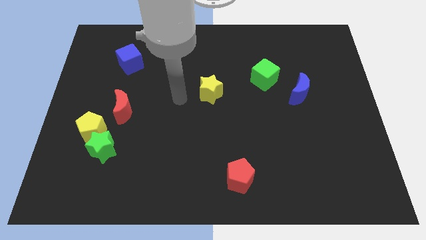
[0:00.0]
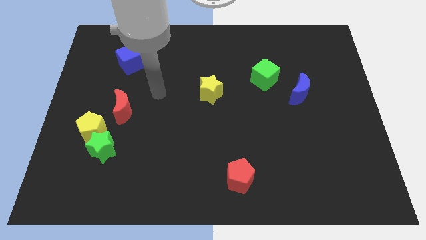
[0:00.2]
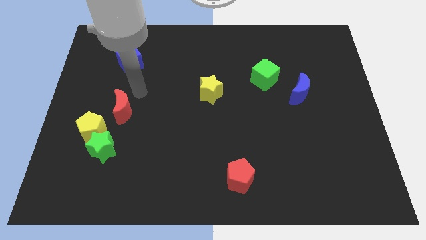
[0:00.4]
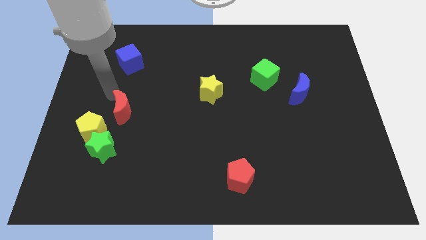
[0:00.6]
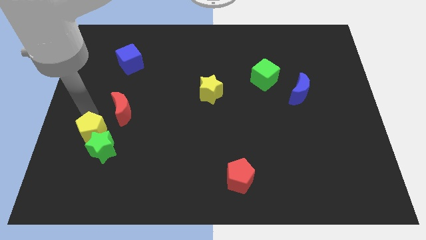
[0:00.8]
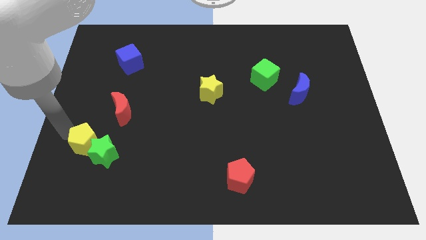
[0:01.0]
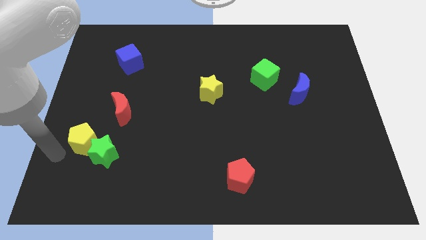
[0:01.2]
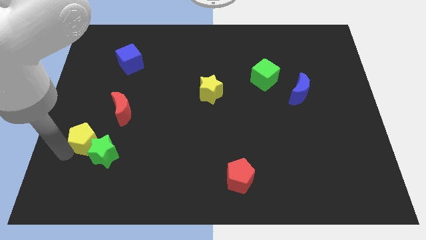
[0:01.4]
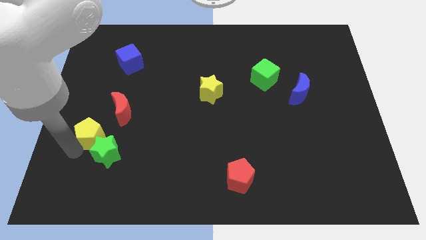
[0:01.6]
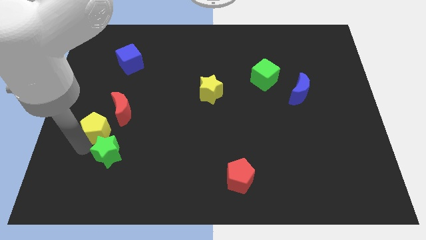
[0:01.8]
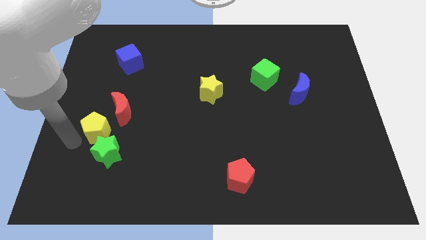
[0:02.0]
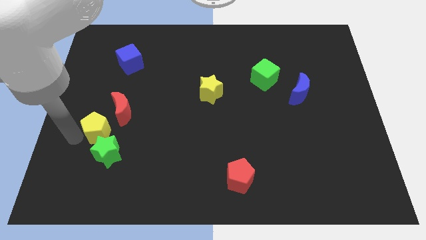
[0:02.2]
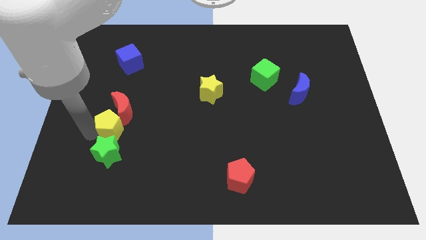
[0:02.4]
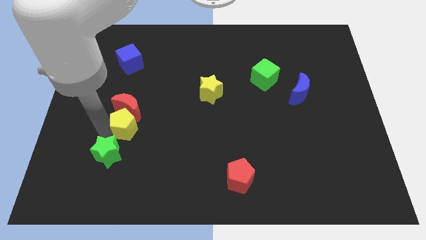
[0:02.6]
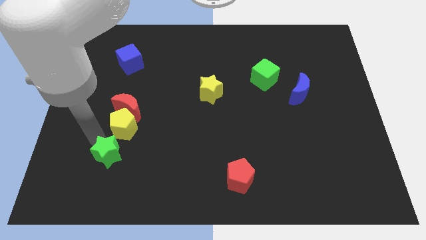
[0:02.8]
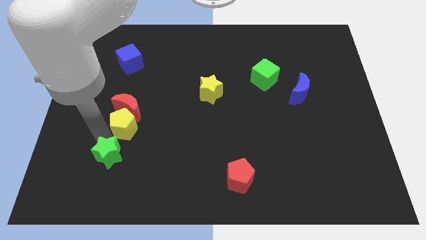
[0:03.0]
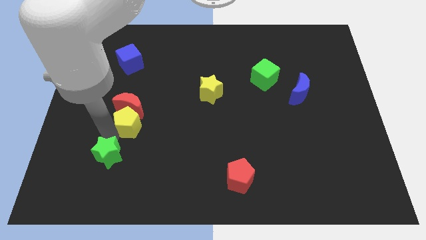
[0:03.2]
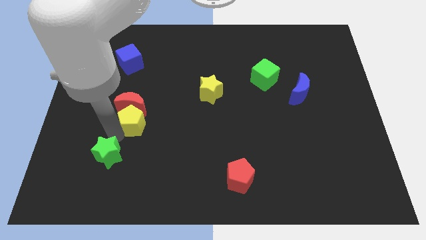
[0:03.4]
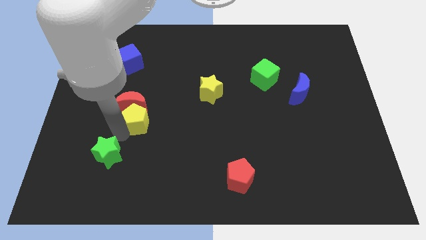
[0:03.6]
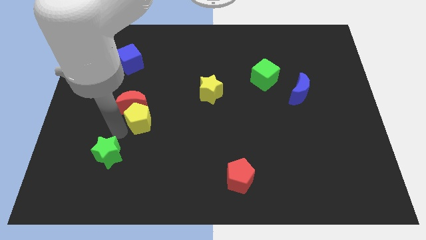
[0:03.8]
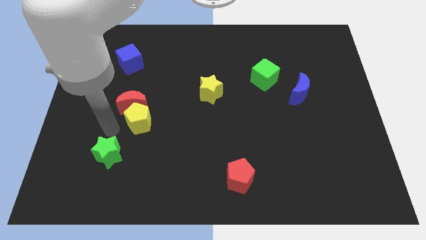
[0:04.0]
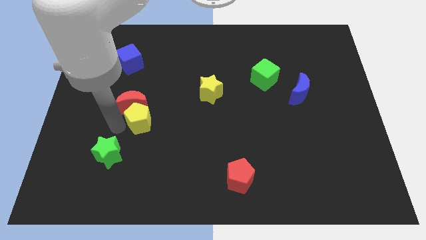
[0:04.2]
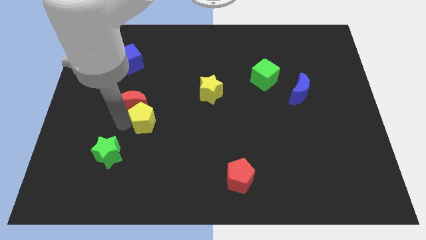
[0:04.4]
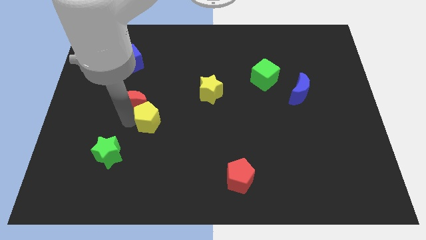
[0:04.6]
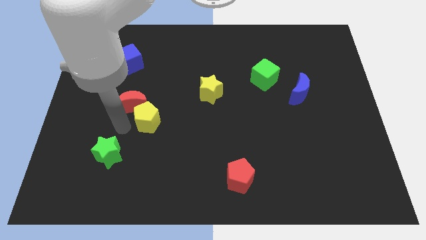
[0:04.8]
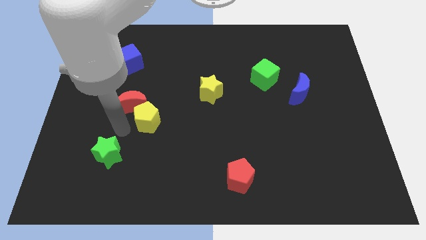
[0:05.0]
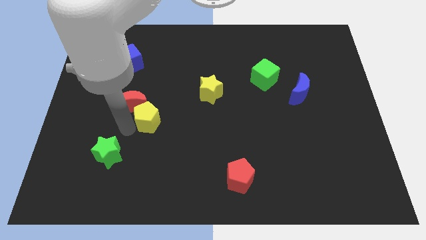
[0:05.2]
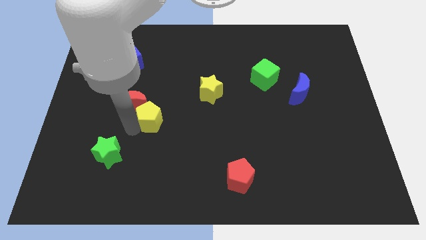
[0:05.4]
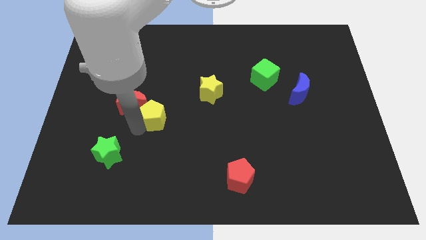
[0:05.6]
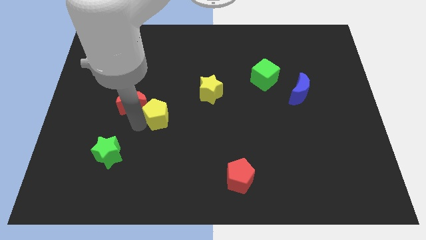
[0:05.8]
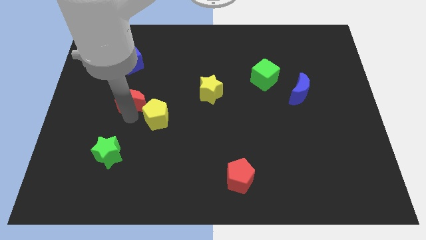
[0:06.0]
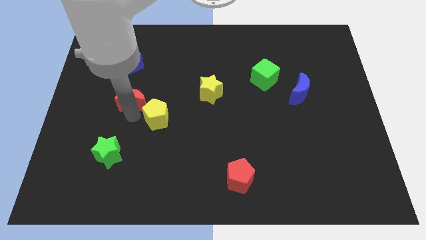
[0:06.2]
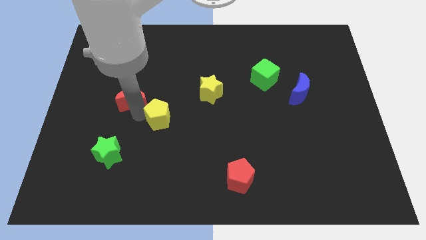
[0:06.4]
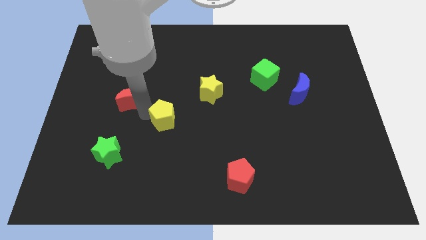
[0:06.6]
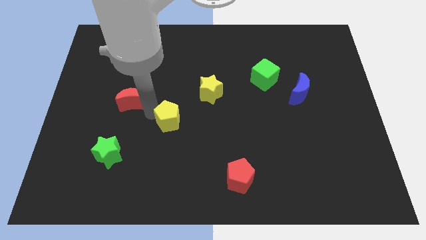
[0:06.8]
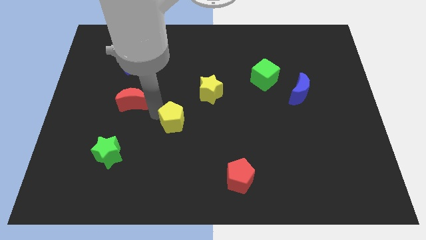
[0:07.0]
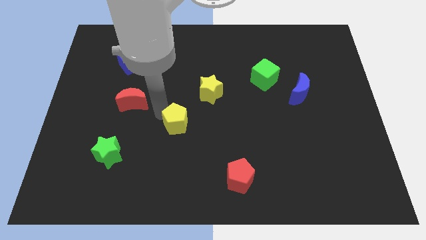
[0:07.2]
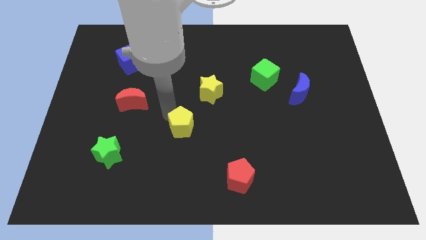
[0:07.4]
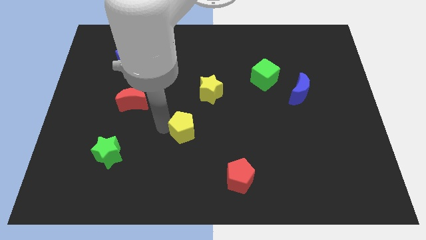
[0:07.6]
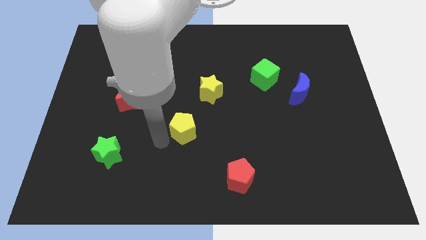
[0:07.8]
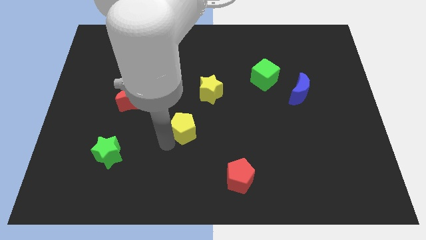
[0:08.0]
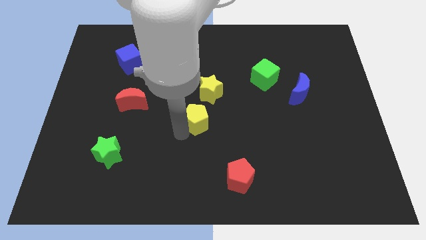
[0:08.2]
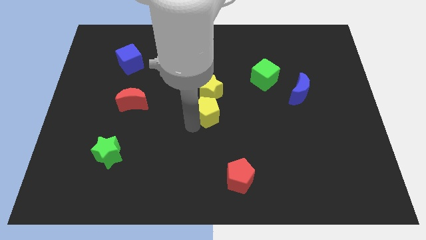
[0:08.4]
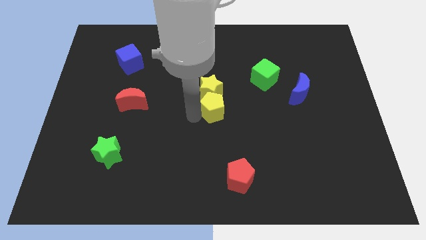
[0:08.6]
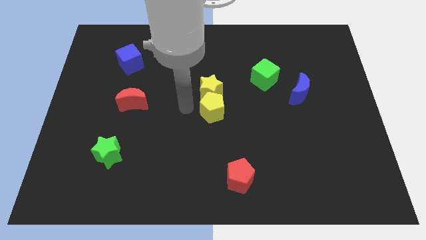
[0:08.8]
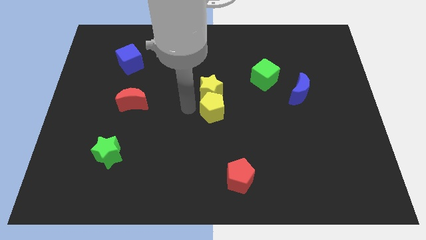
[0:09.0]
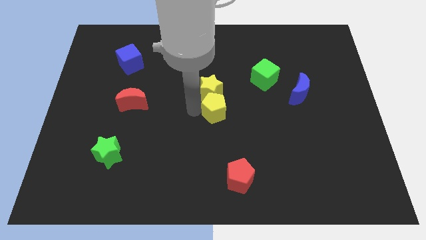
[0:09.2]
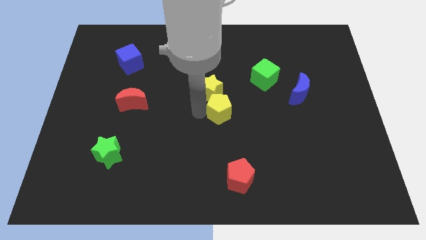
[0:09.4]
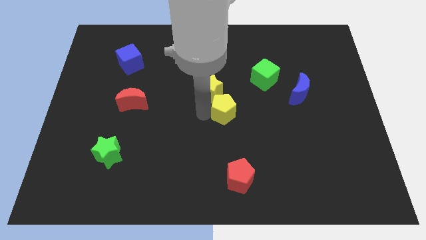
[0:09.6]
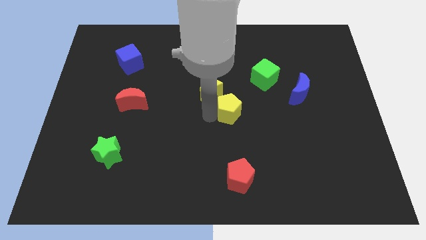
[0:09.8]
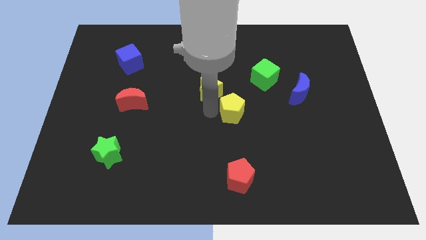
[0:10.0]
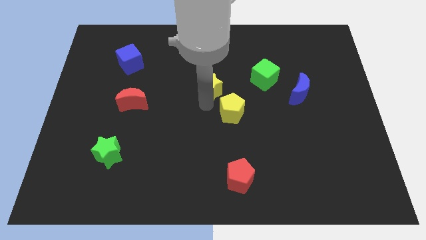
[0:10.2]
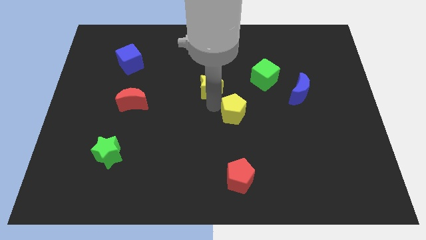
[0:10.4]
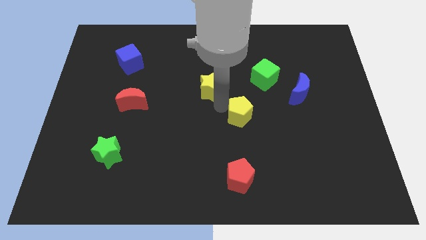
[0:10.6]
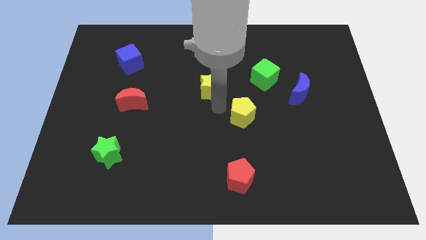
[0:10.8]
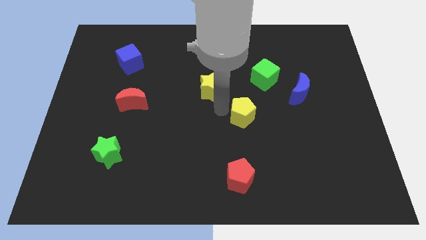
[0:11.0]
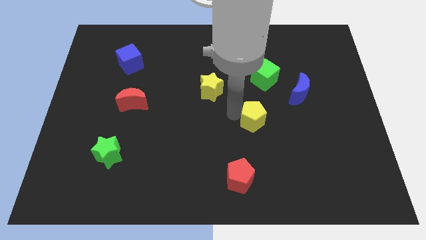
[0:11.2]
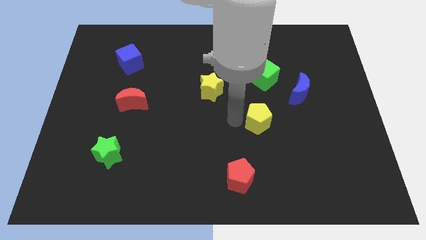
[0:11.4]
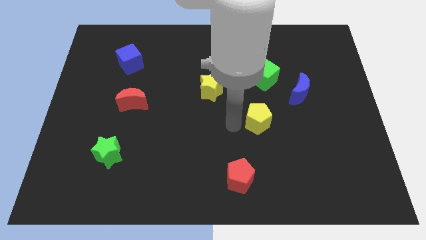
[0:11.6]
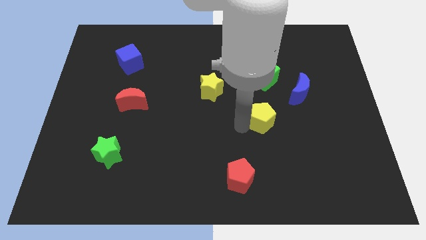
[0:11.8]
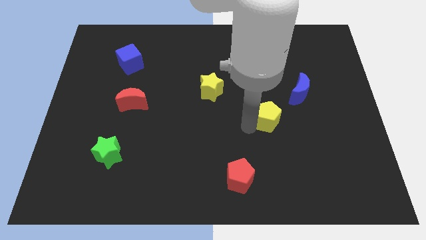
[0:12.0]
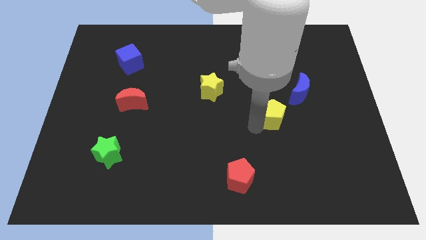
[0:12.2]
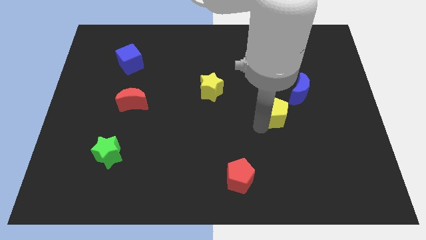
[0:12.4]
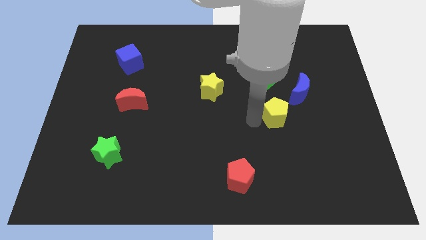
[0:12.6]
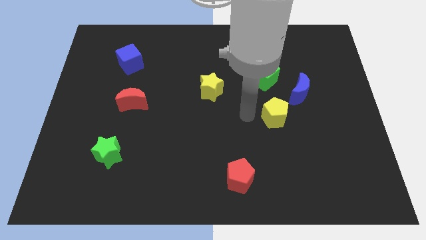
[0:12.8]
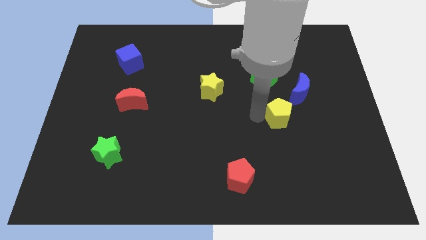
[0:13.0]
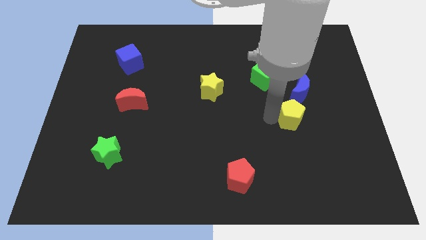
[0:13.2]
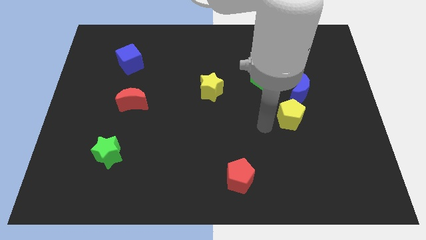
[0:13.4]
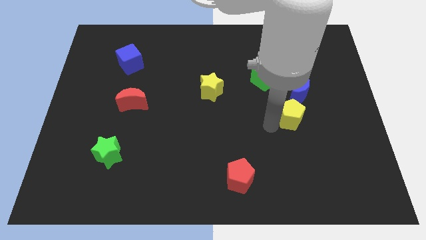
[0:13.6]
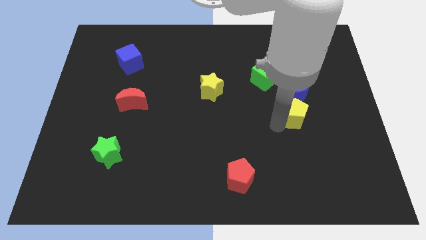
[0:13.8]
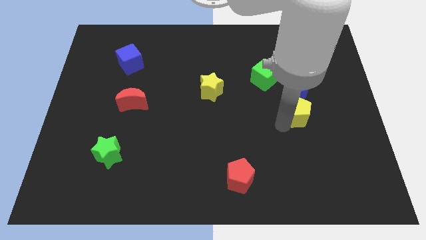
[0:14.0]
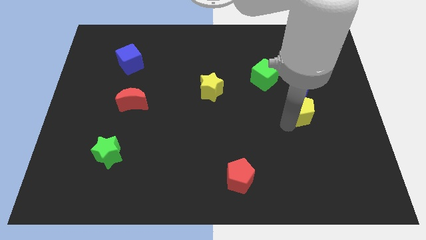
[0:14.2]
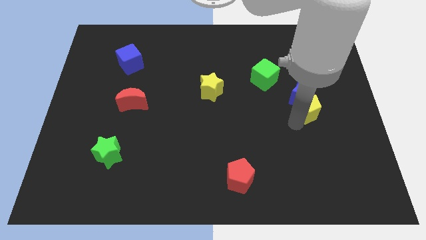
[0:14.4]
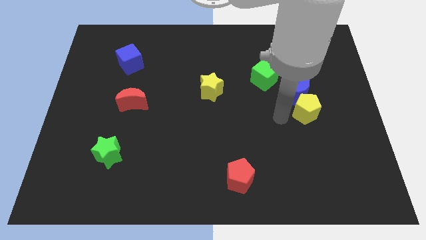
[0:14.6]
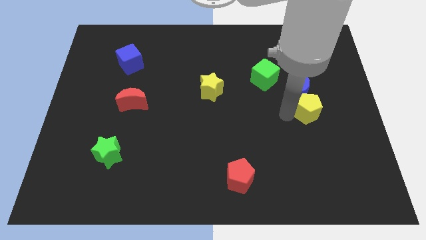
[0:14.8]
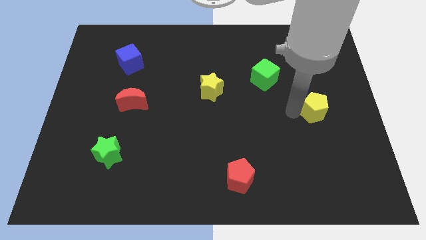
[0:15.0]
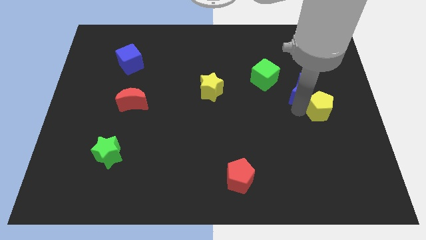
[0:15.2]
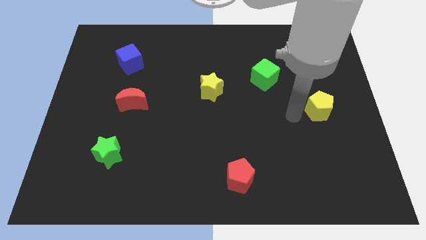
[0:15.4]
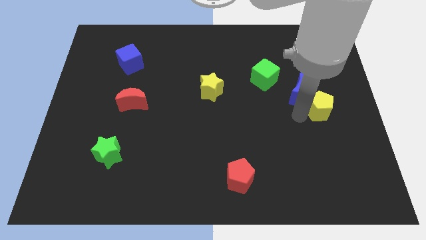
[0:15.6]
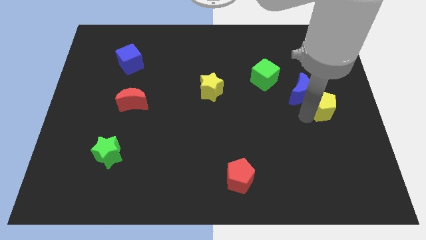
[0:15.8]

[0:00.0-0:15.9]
move the yellow pentagon to the center right
